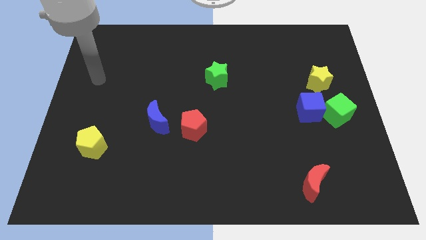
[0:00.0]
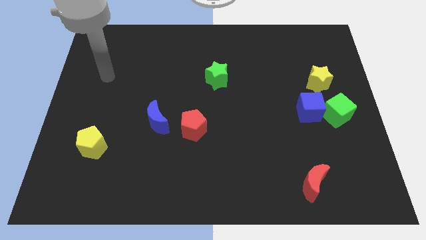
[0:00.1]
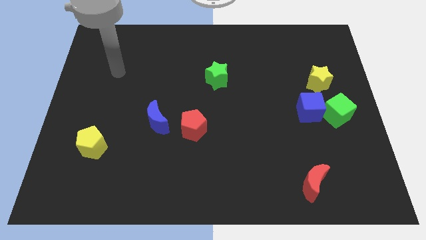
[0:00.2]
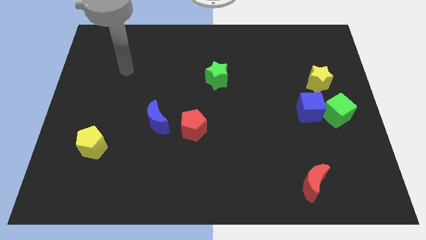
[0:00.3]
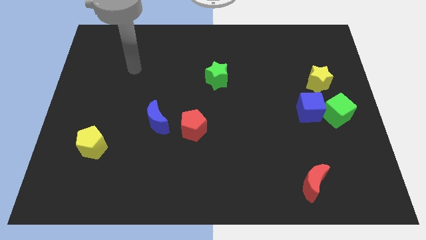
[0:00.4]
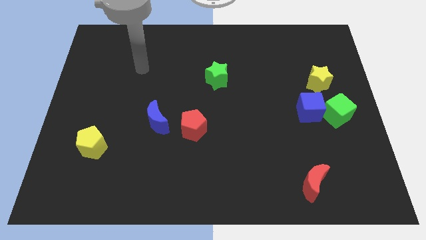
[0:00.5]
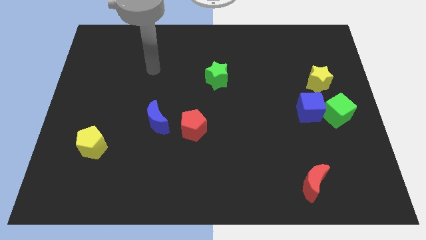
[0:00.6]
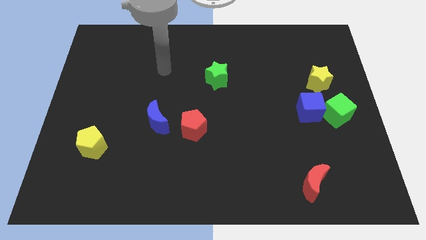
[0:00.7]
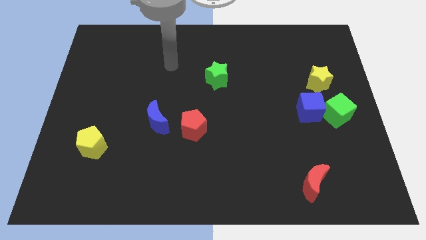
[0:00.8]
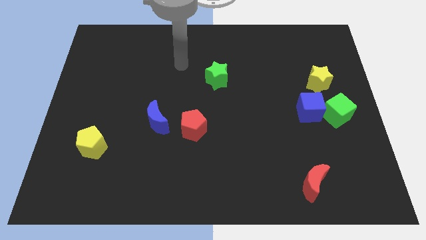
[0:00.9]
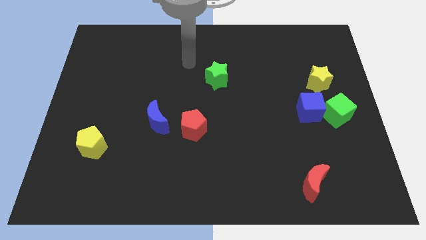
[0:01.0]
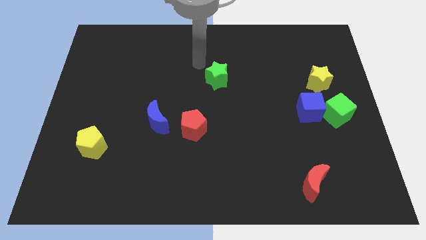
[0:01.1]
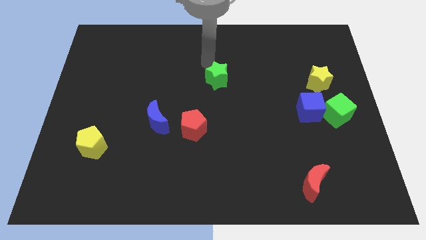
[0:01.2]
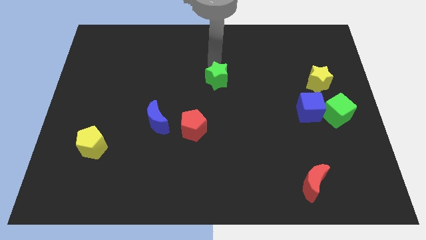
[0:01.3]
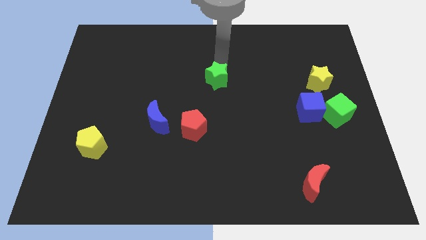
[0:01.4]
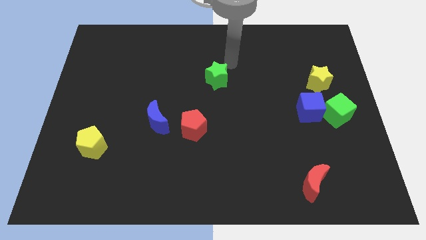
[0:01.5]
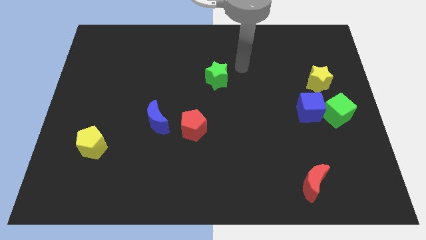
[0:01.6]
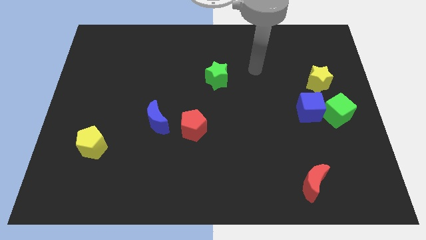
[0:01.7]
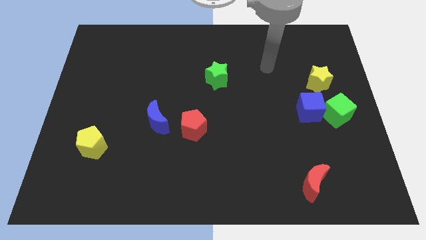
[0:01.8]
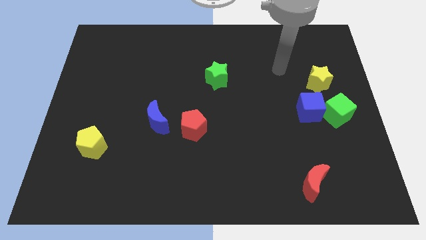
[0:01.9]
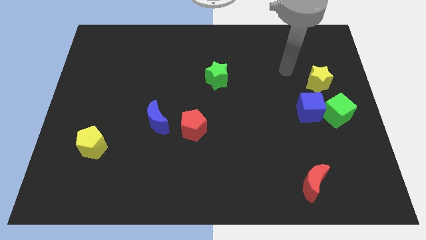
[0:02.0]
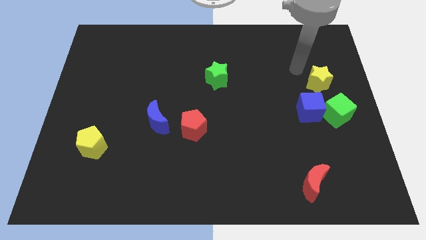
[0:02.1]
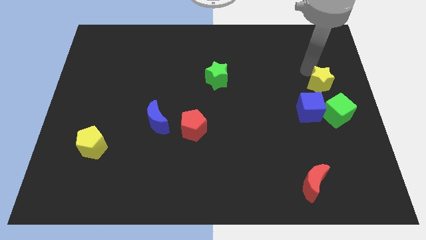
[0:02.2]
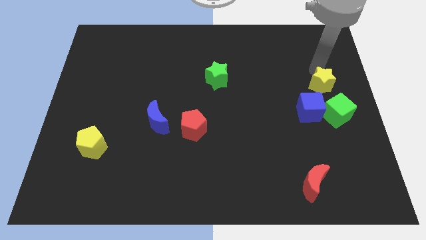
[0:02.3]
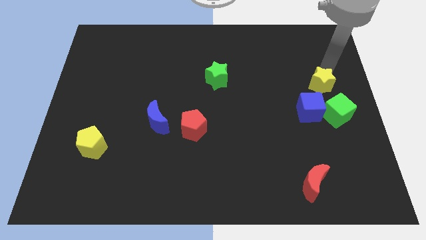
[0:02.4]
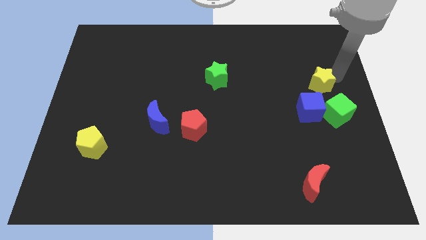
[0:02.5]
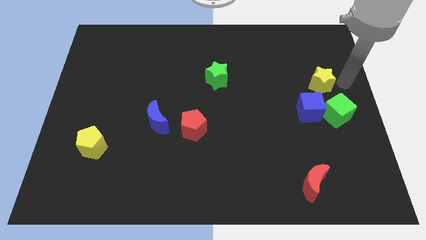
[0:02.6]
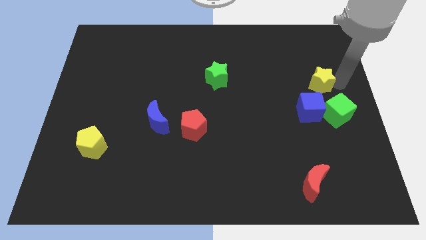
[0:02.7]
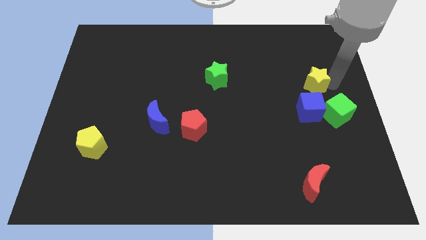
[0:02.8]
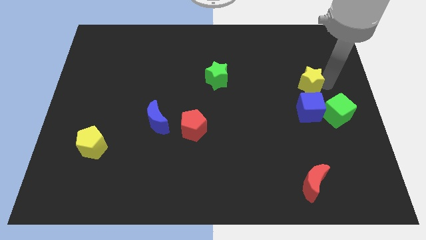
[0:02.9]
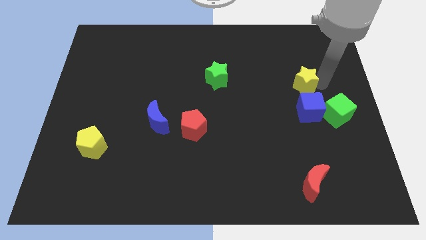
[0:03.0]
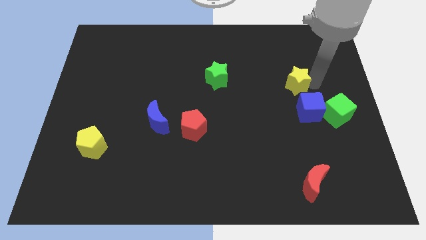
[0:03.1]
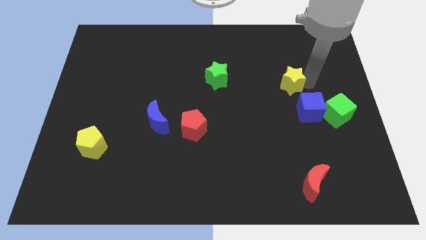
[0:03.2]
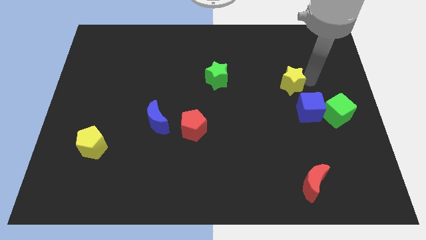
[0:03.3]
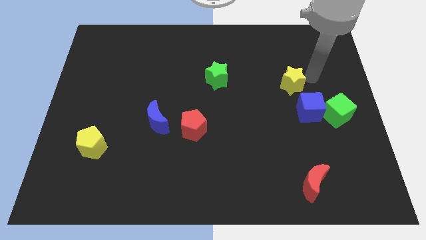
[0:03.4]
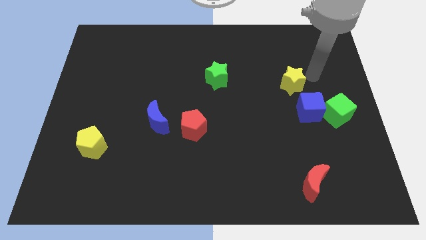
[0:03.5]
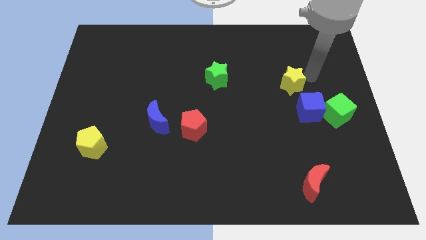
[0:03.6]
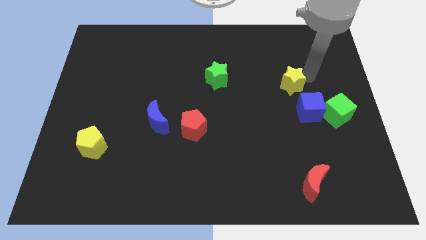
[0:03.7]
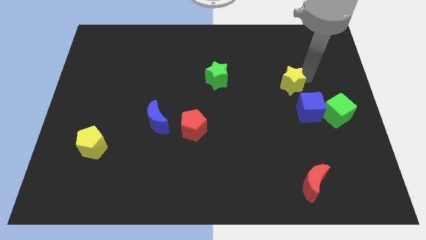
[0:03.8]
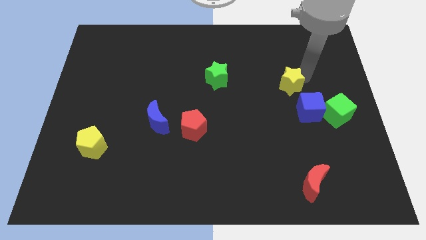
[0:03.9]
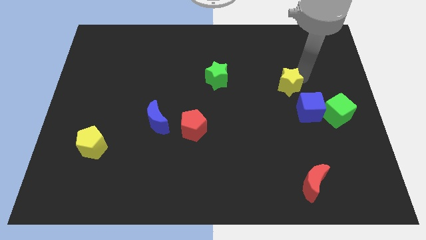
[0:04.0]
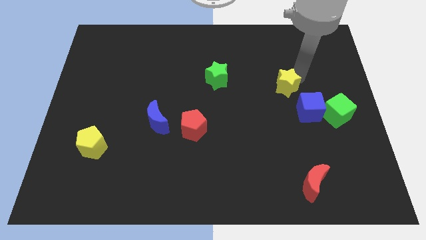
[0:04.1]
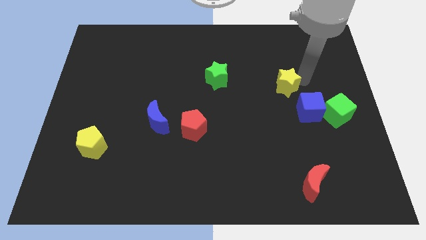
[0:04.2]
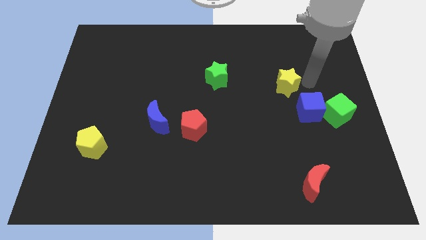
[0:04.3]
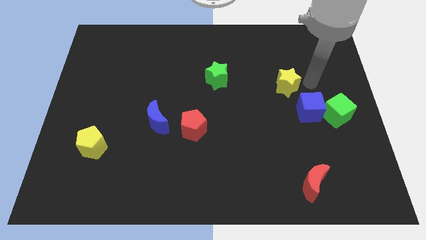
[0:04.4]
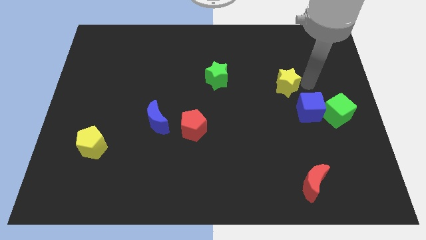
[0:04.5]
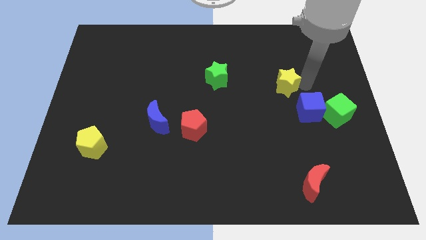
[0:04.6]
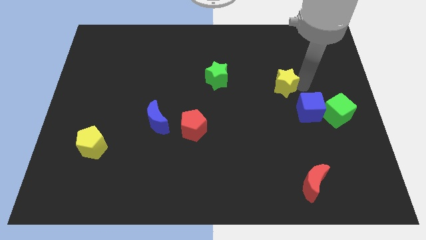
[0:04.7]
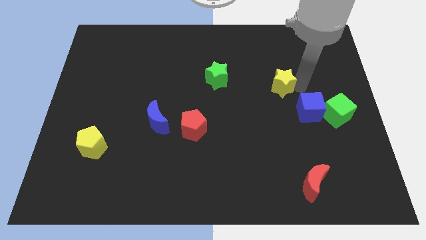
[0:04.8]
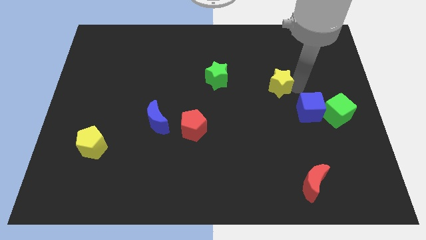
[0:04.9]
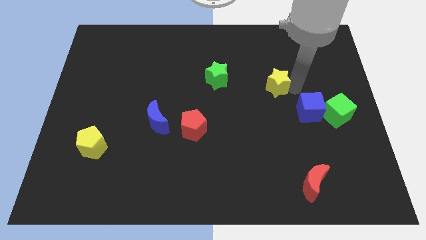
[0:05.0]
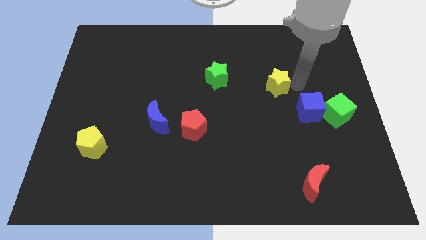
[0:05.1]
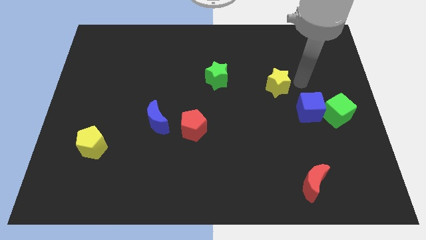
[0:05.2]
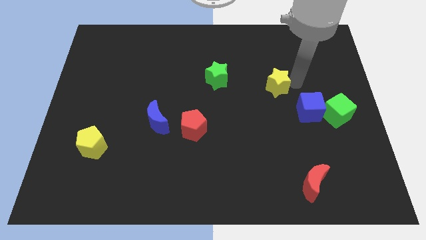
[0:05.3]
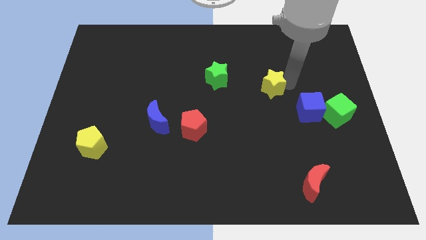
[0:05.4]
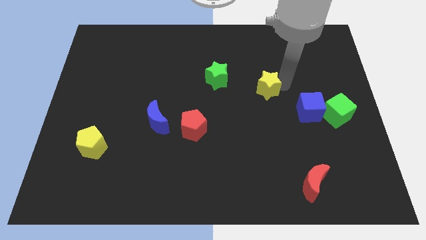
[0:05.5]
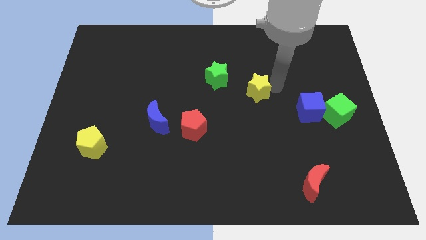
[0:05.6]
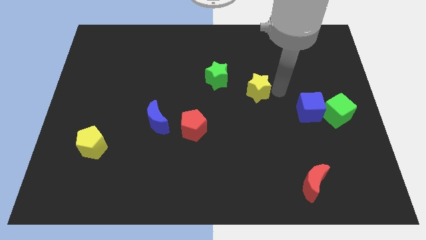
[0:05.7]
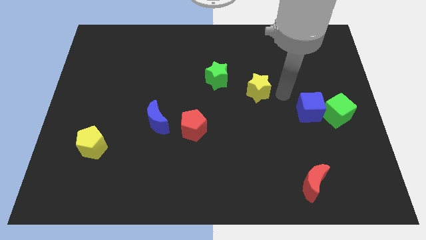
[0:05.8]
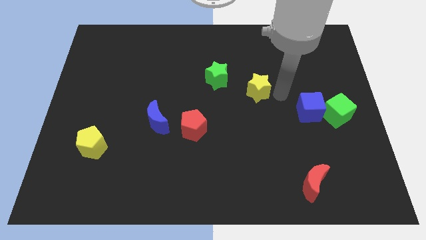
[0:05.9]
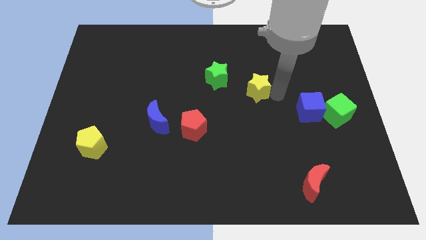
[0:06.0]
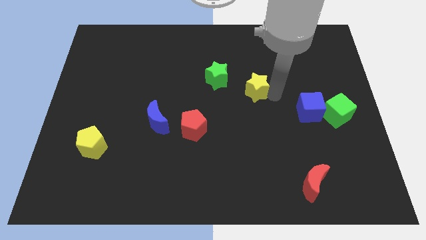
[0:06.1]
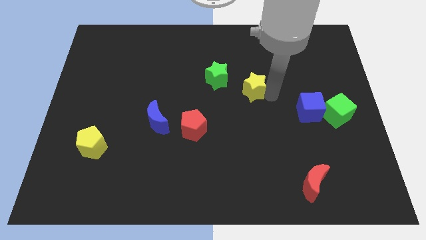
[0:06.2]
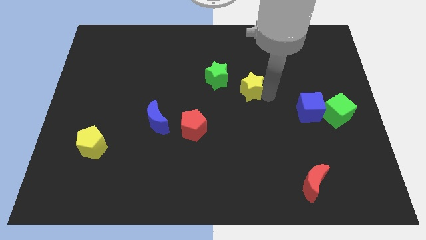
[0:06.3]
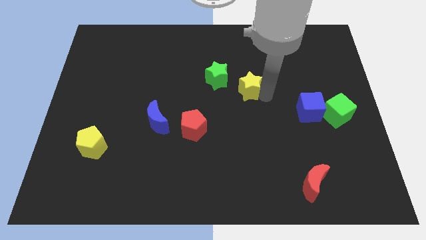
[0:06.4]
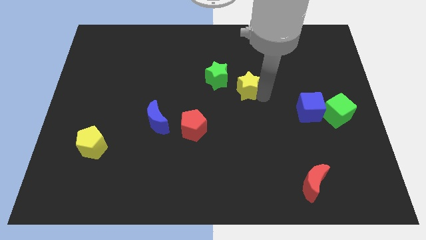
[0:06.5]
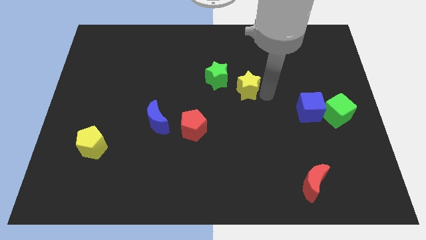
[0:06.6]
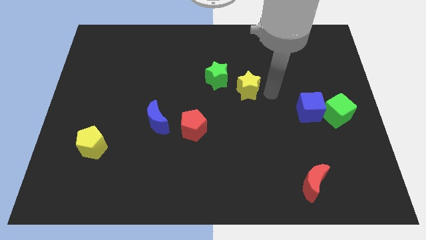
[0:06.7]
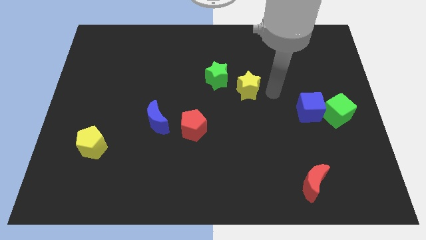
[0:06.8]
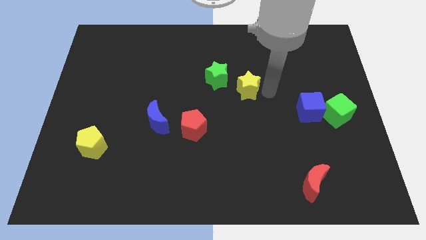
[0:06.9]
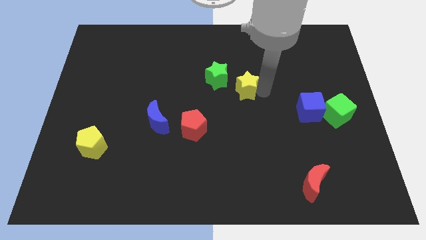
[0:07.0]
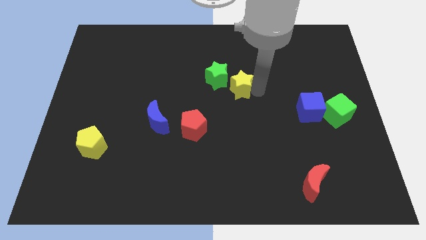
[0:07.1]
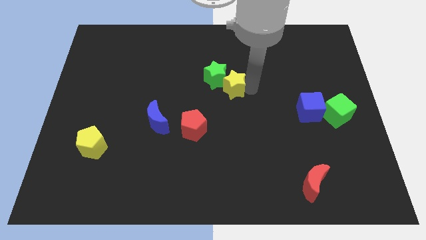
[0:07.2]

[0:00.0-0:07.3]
slide the yellow star to the left

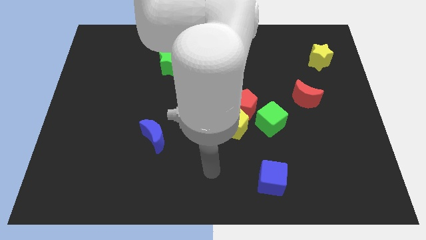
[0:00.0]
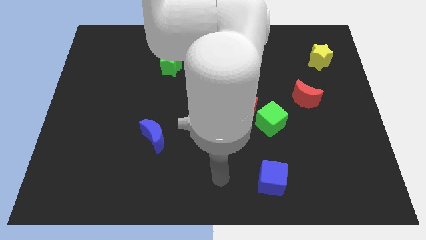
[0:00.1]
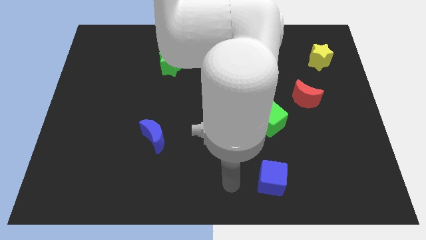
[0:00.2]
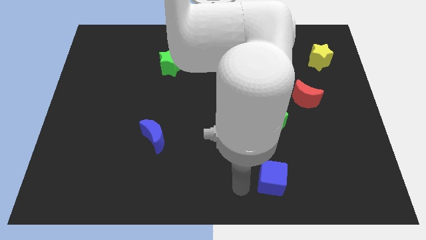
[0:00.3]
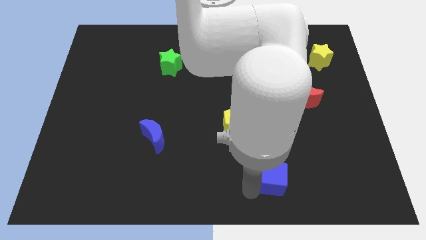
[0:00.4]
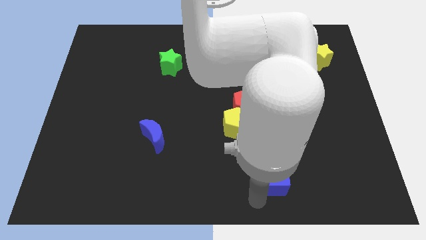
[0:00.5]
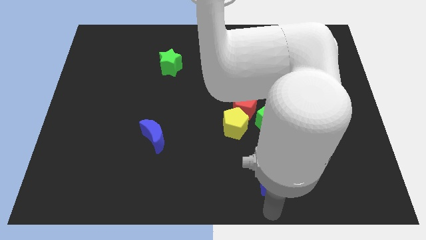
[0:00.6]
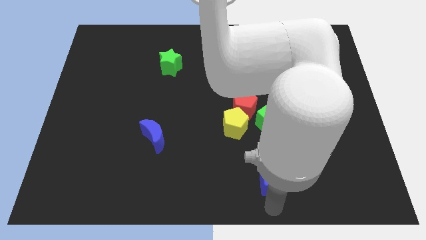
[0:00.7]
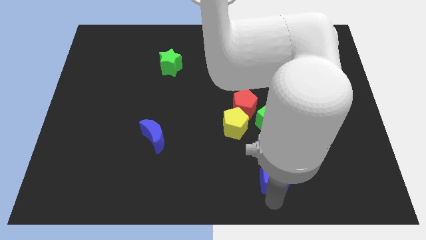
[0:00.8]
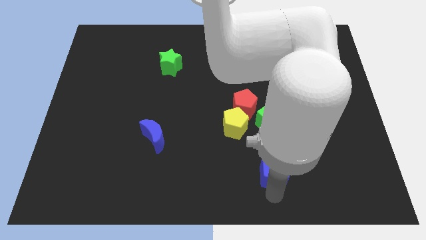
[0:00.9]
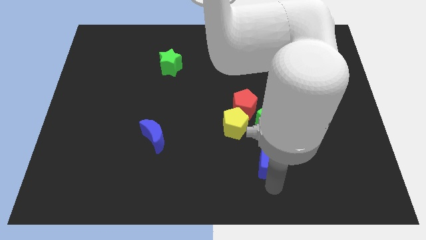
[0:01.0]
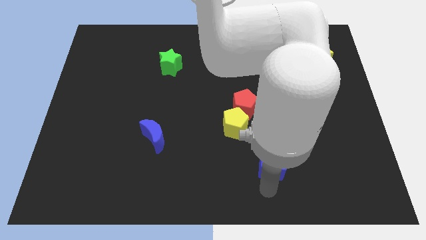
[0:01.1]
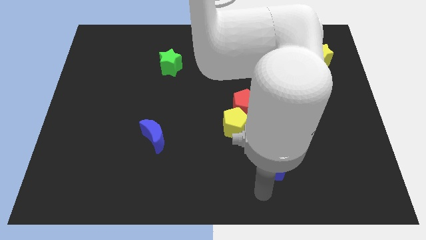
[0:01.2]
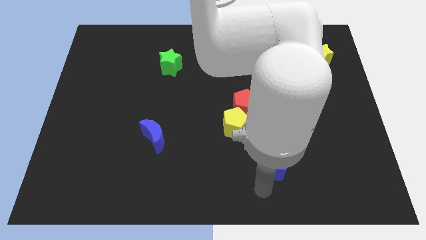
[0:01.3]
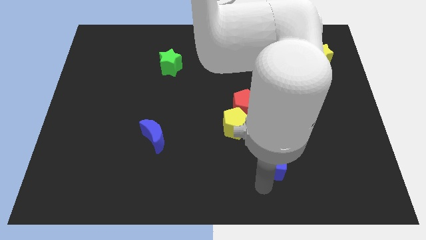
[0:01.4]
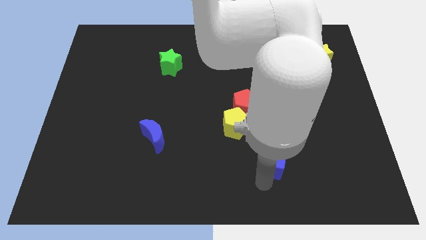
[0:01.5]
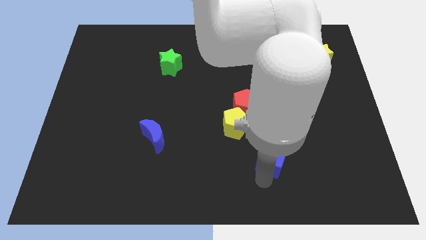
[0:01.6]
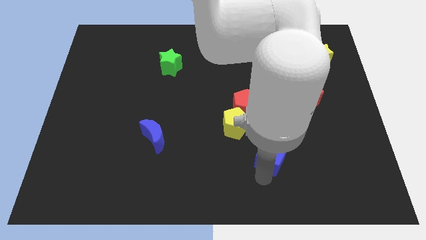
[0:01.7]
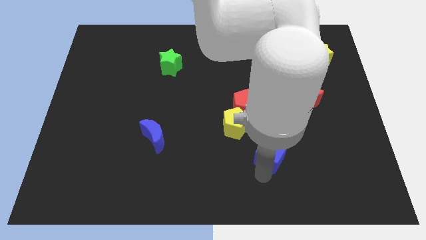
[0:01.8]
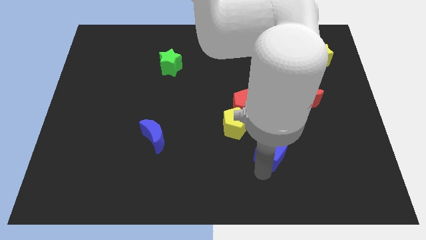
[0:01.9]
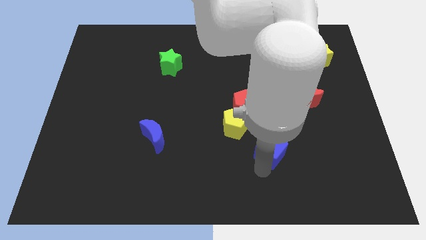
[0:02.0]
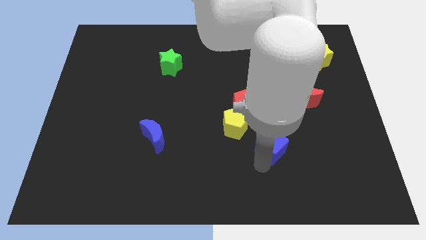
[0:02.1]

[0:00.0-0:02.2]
slightly push the blue cube upwards
